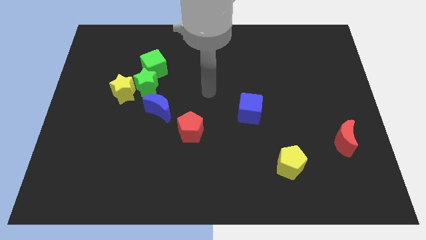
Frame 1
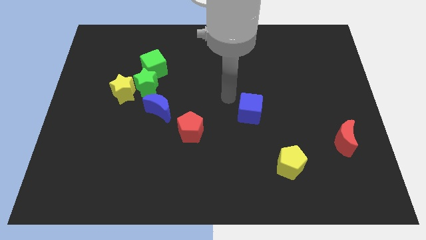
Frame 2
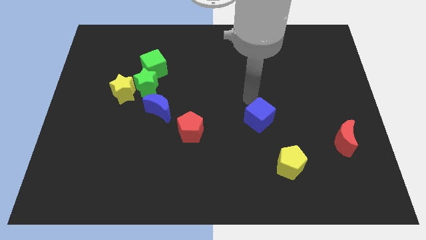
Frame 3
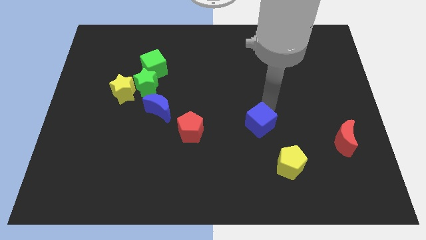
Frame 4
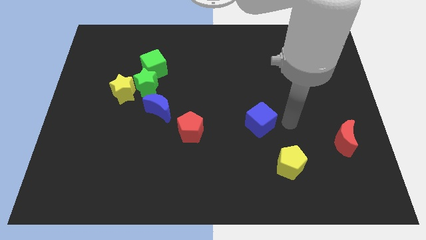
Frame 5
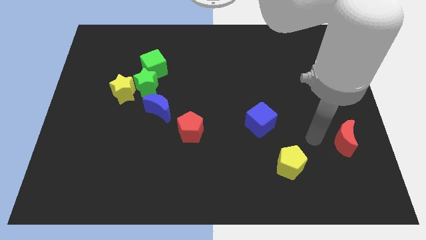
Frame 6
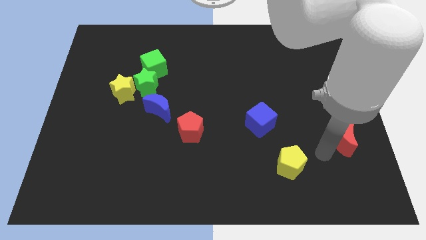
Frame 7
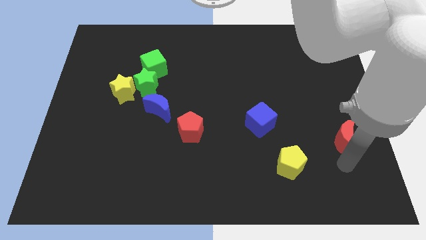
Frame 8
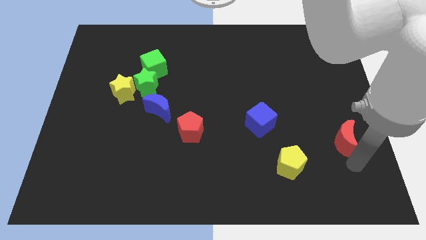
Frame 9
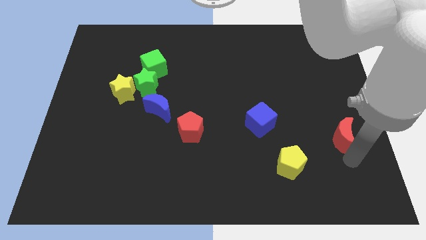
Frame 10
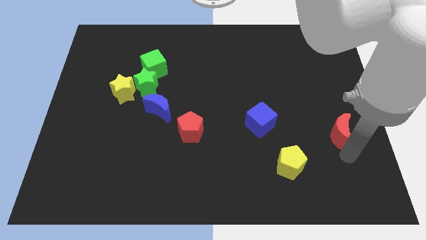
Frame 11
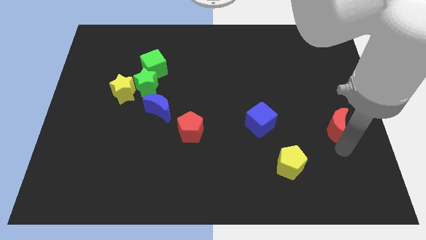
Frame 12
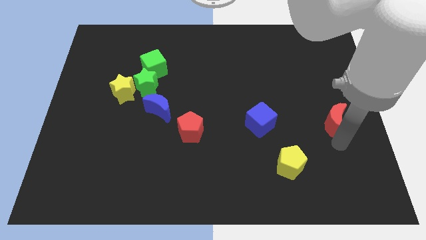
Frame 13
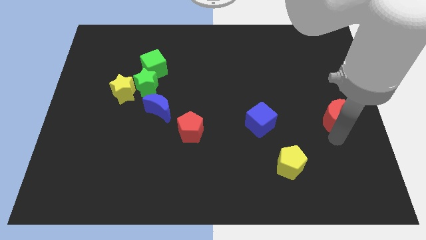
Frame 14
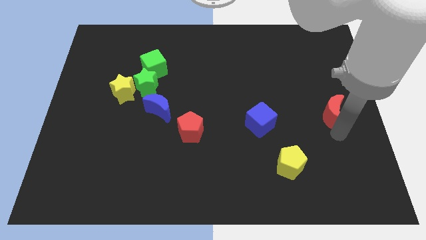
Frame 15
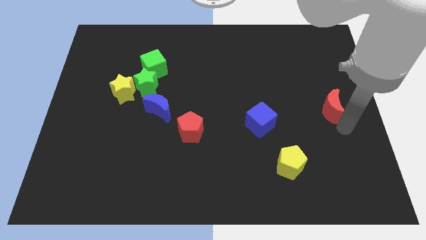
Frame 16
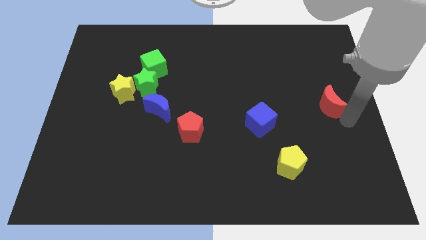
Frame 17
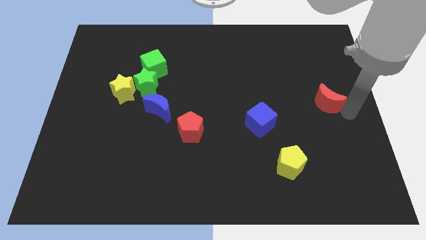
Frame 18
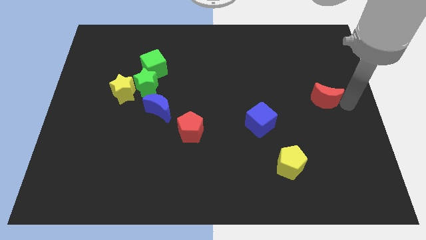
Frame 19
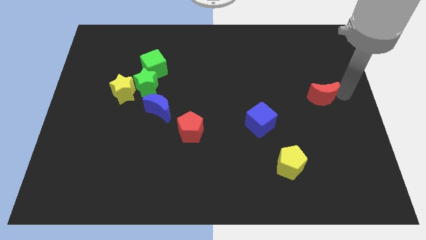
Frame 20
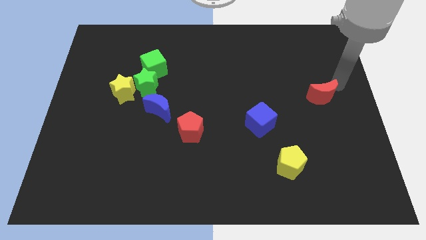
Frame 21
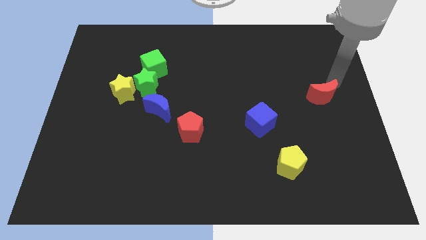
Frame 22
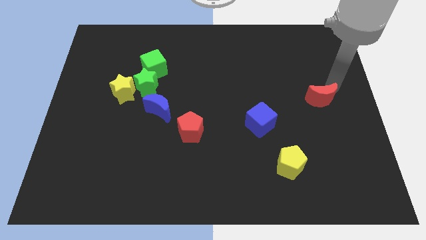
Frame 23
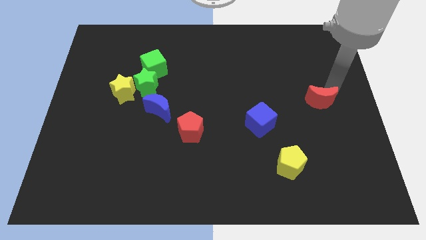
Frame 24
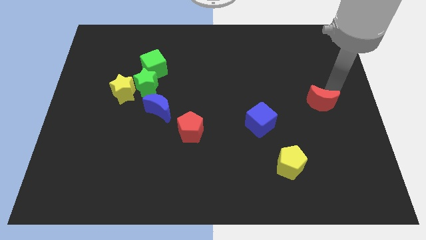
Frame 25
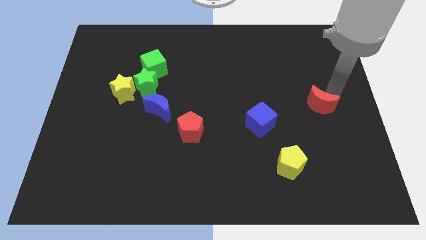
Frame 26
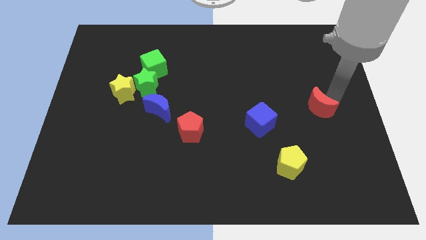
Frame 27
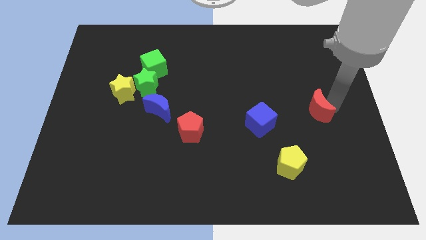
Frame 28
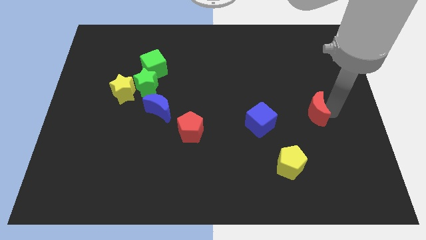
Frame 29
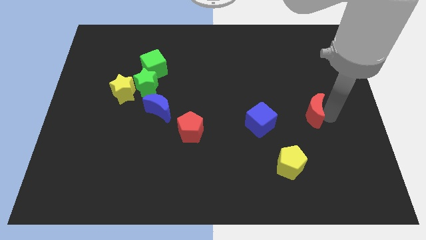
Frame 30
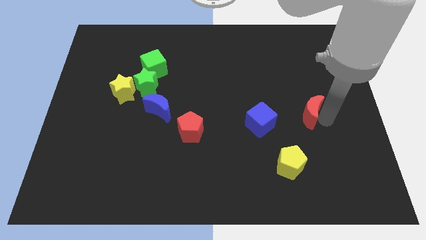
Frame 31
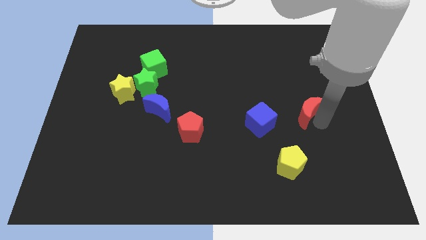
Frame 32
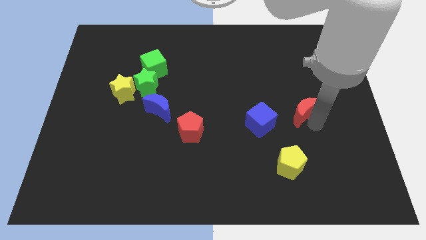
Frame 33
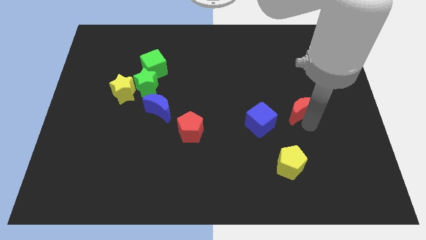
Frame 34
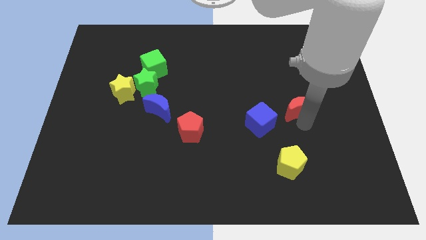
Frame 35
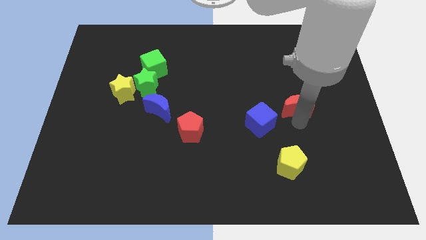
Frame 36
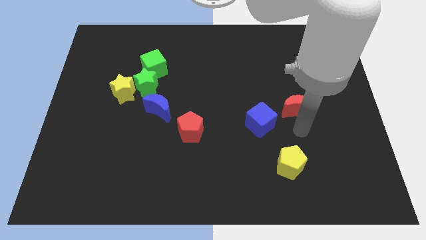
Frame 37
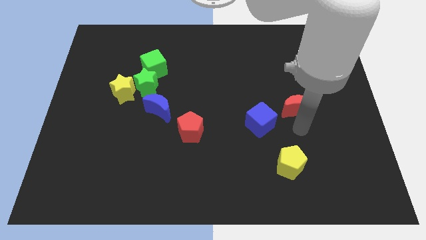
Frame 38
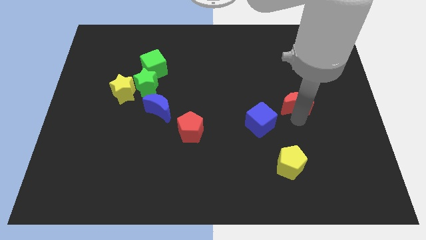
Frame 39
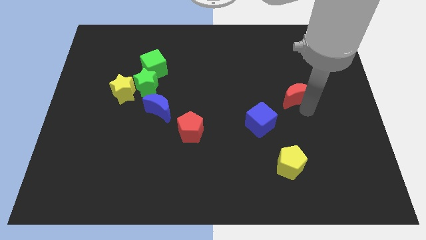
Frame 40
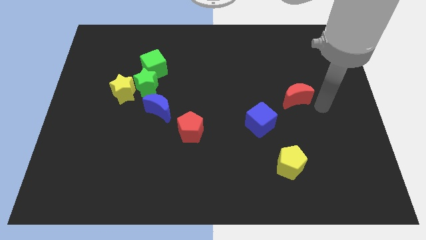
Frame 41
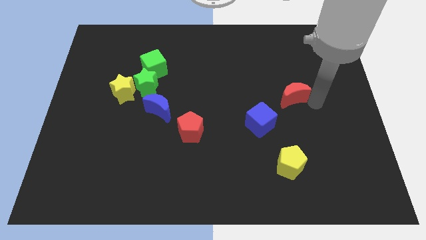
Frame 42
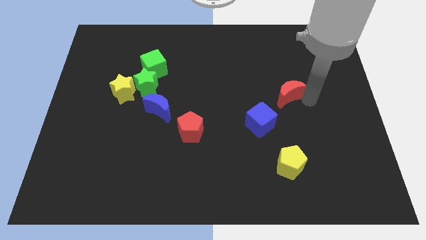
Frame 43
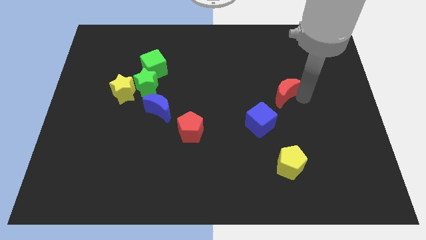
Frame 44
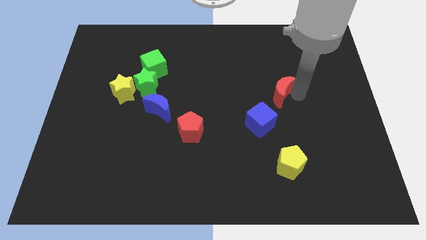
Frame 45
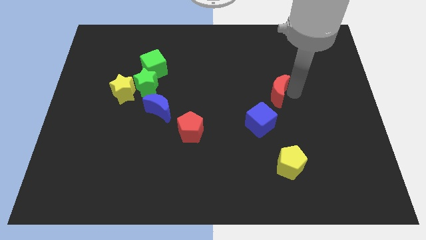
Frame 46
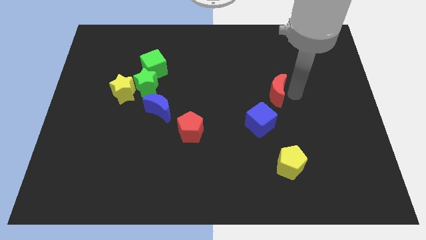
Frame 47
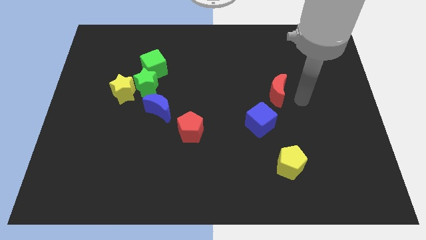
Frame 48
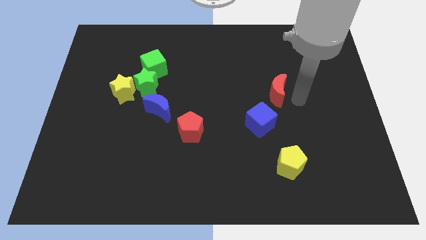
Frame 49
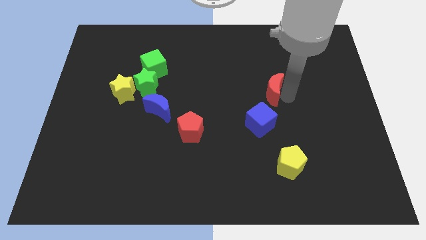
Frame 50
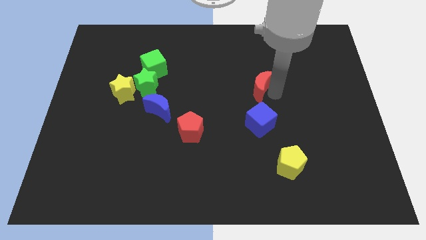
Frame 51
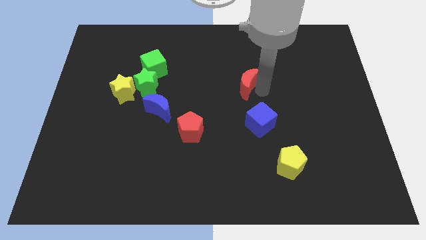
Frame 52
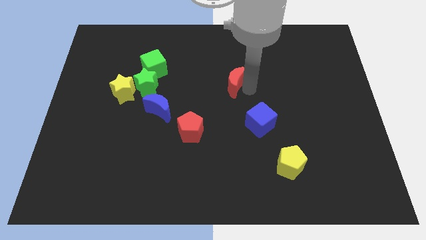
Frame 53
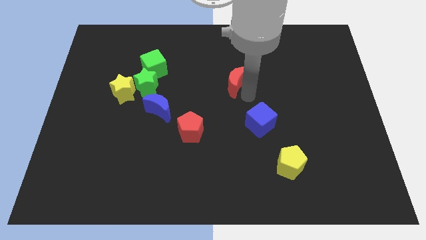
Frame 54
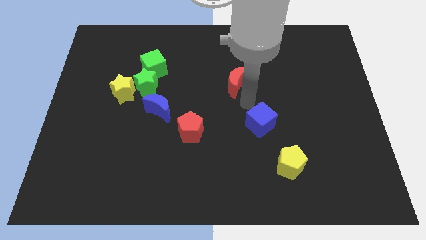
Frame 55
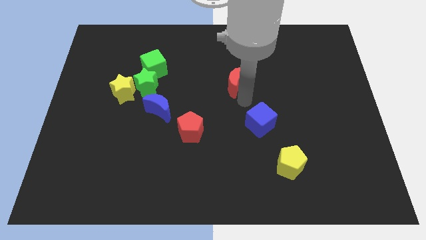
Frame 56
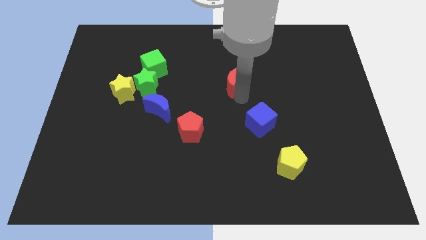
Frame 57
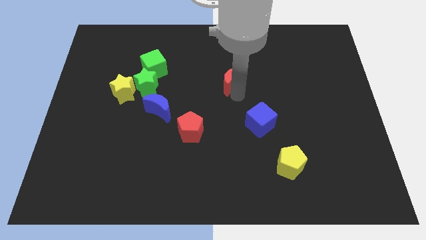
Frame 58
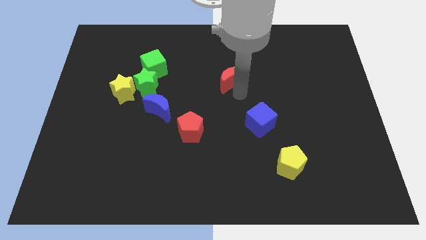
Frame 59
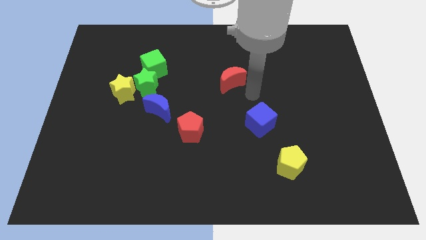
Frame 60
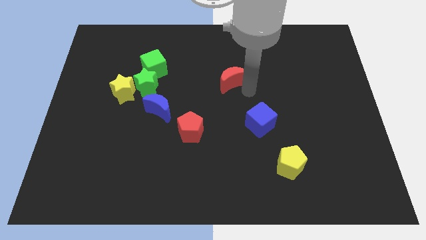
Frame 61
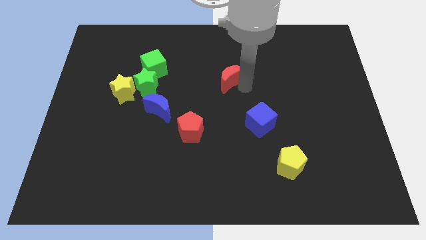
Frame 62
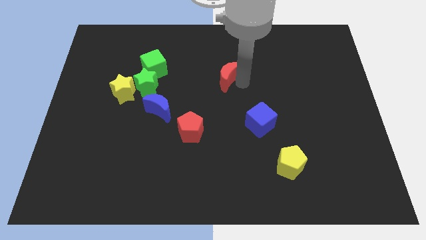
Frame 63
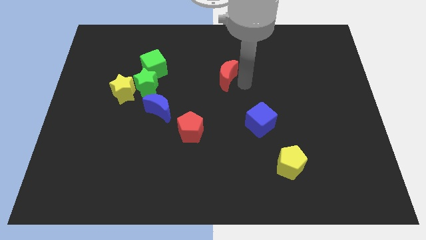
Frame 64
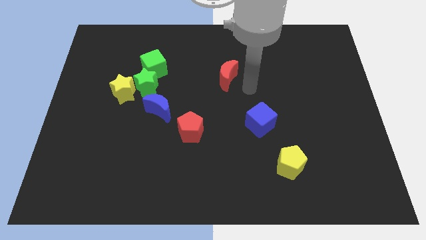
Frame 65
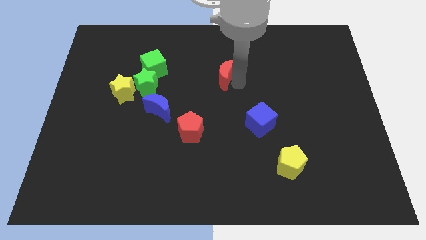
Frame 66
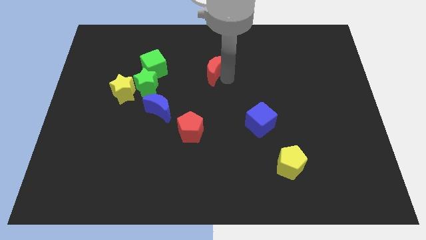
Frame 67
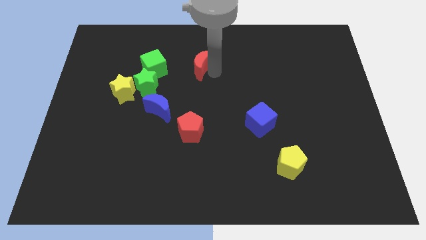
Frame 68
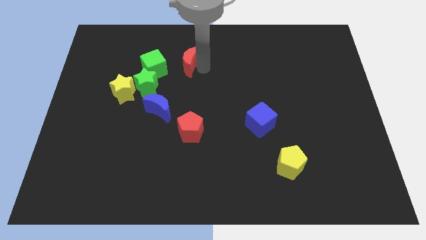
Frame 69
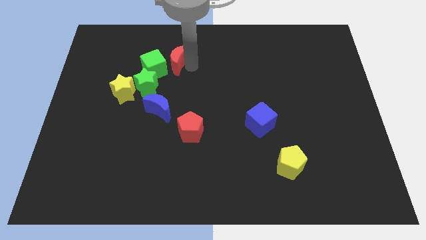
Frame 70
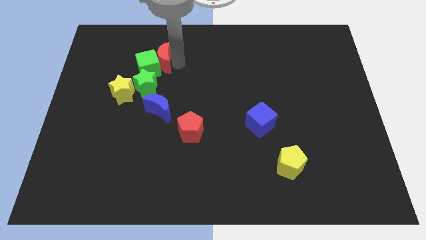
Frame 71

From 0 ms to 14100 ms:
put the red moon to the top of the green star
